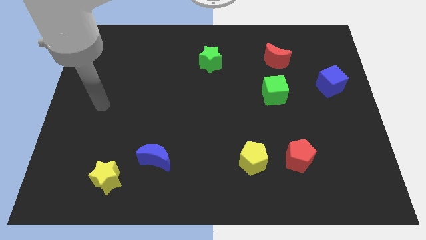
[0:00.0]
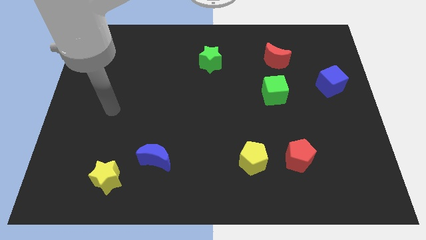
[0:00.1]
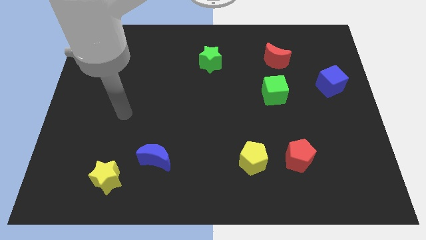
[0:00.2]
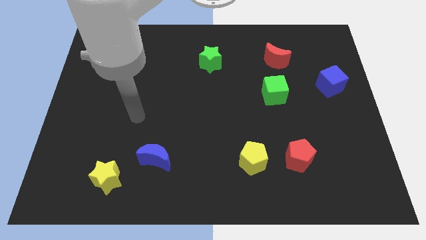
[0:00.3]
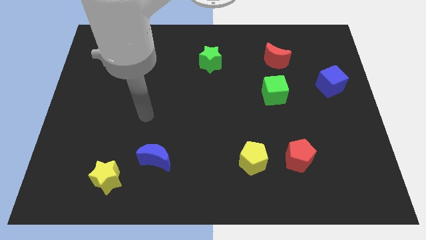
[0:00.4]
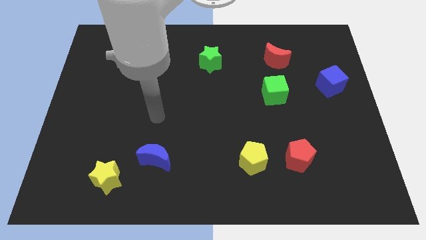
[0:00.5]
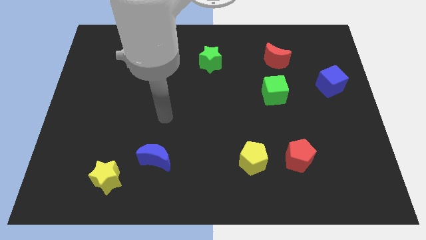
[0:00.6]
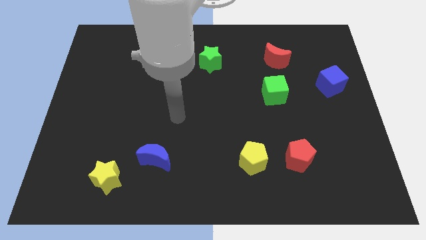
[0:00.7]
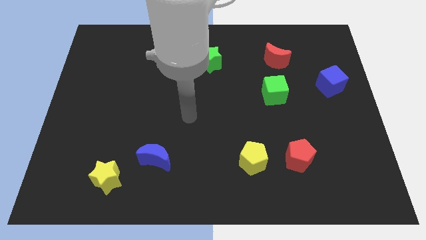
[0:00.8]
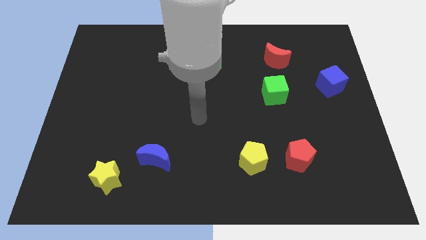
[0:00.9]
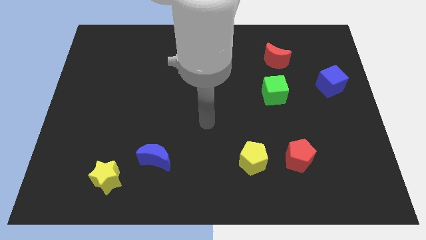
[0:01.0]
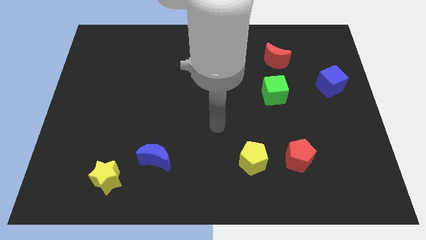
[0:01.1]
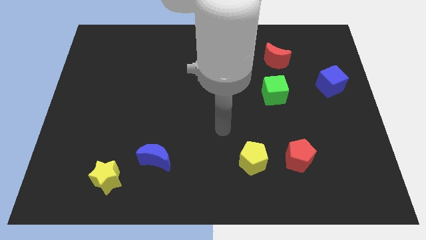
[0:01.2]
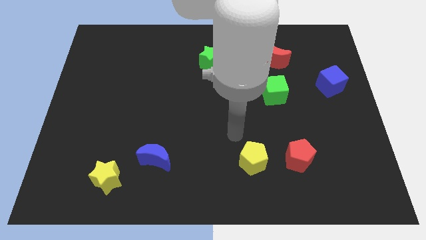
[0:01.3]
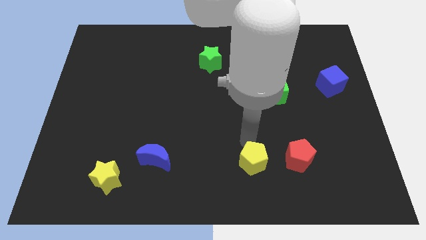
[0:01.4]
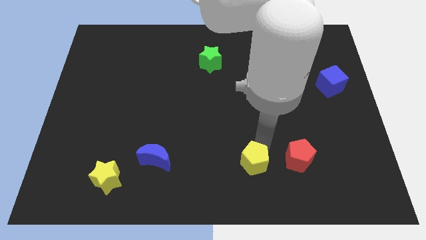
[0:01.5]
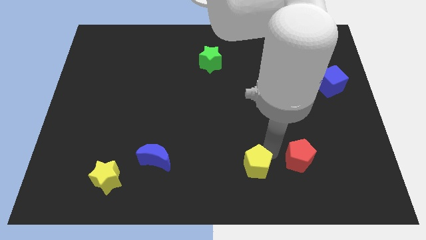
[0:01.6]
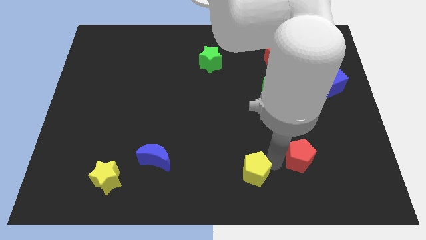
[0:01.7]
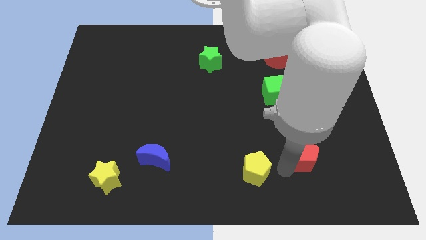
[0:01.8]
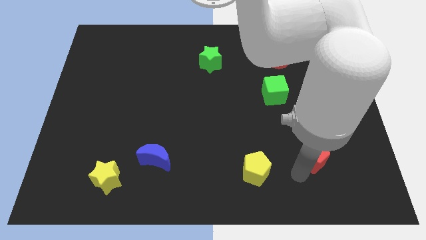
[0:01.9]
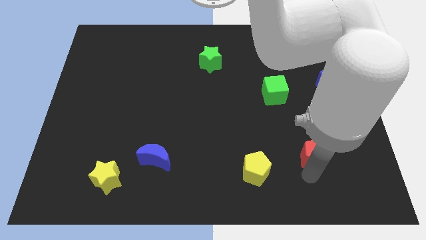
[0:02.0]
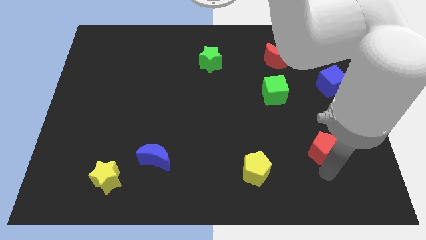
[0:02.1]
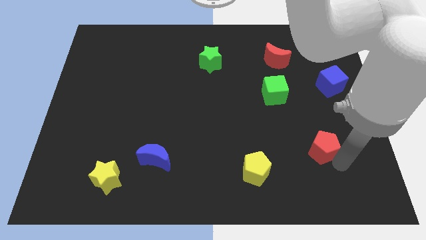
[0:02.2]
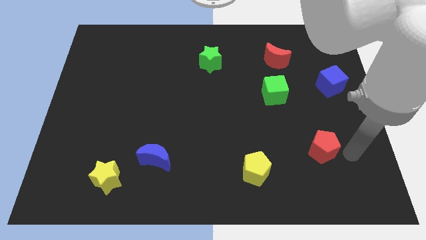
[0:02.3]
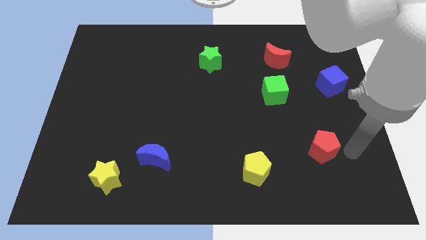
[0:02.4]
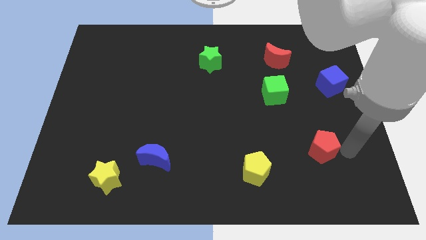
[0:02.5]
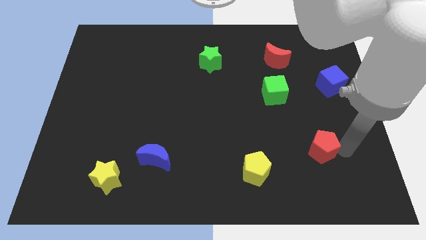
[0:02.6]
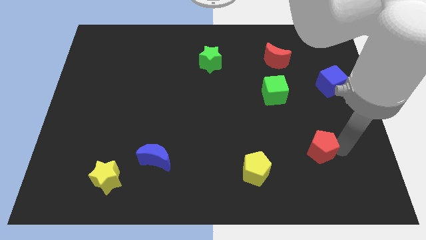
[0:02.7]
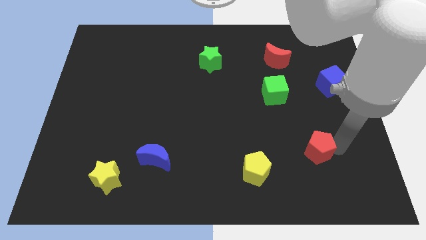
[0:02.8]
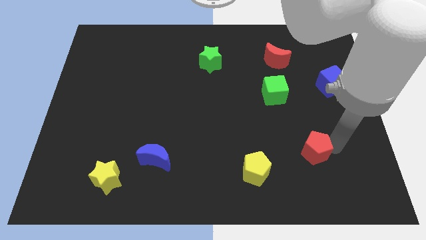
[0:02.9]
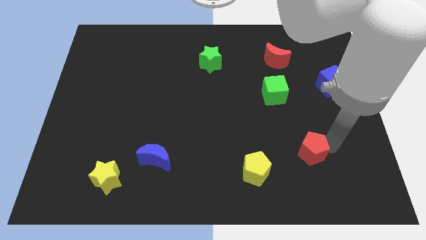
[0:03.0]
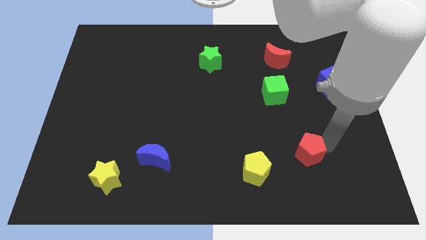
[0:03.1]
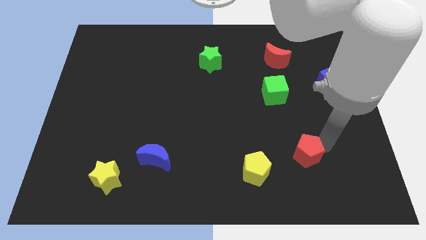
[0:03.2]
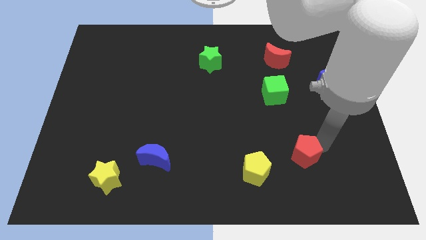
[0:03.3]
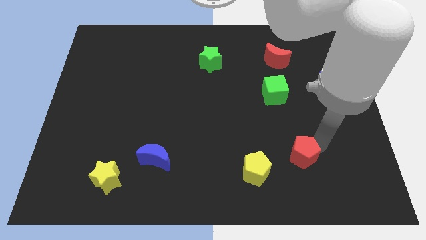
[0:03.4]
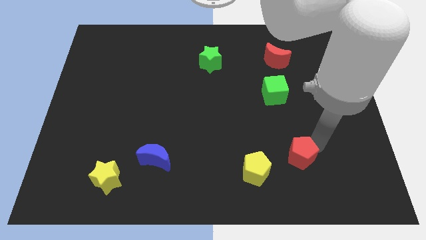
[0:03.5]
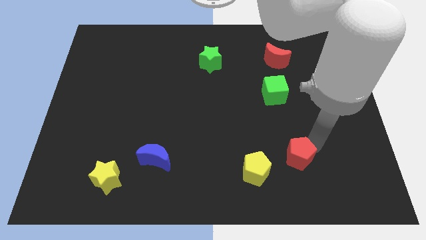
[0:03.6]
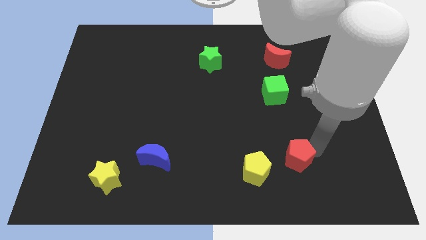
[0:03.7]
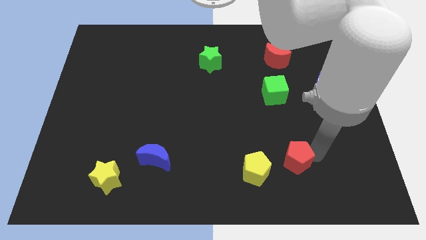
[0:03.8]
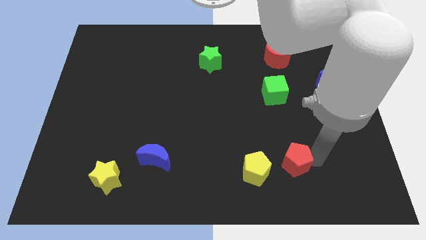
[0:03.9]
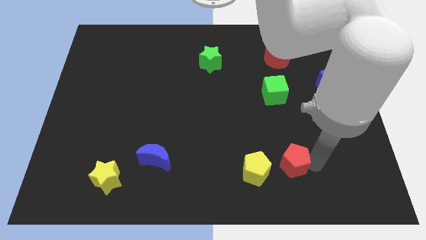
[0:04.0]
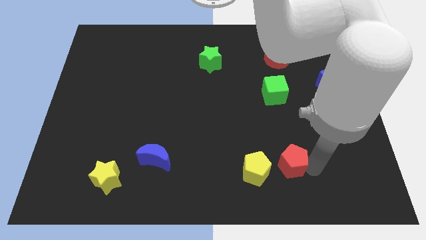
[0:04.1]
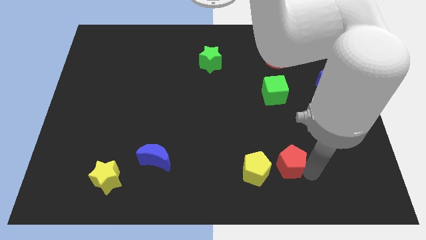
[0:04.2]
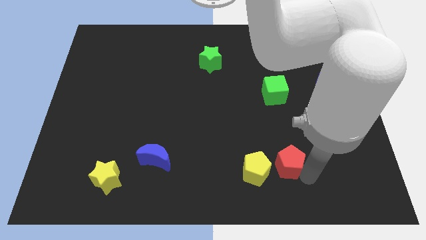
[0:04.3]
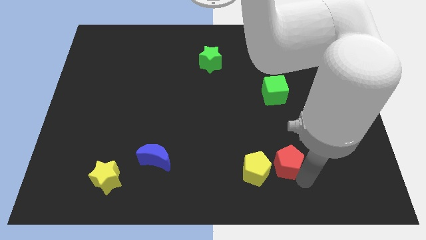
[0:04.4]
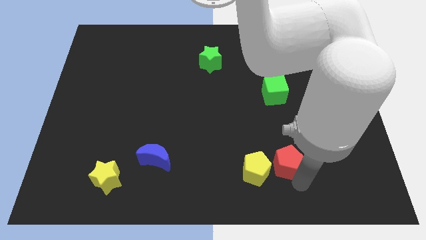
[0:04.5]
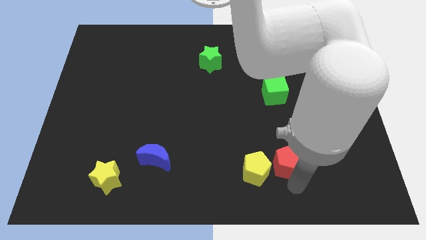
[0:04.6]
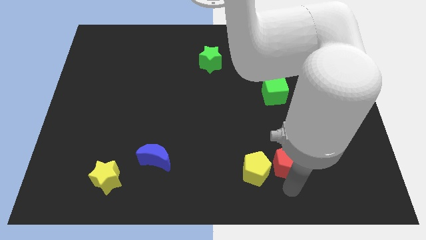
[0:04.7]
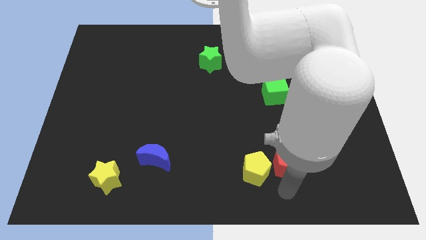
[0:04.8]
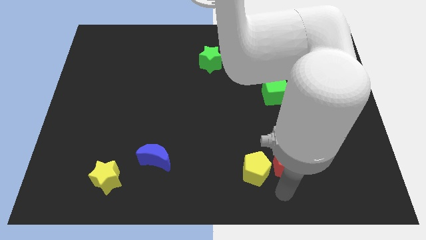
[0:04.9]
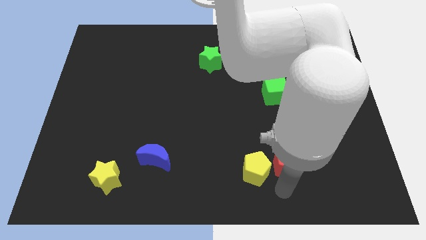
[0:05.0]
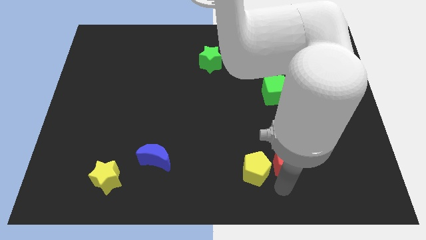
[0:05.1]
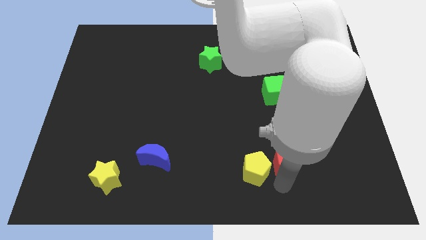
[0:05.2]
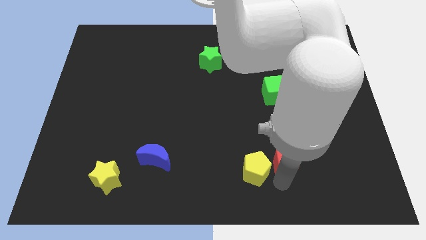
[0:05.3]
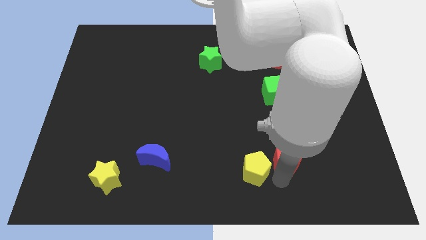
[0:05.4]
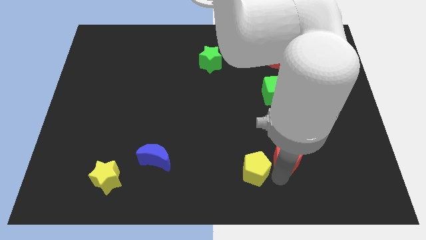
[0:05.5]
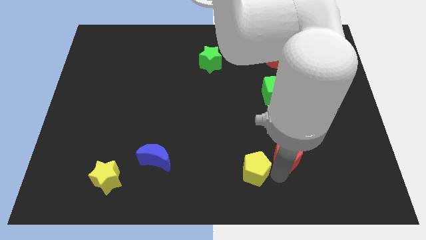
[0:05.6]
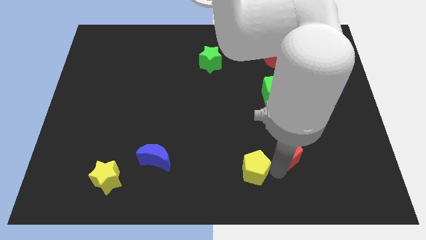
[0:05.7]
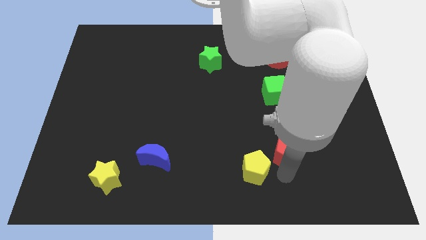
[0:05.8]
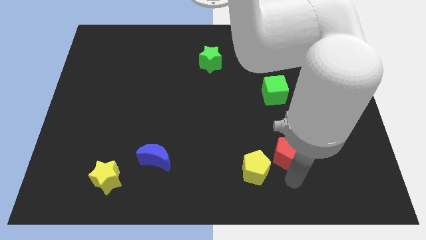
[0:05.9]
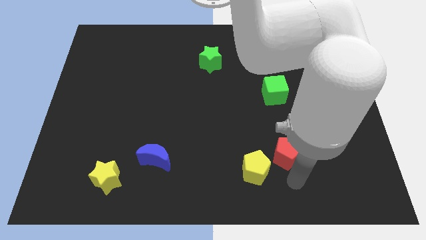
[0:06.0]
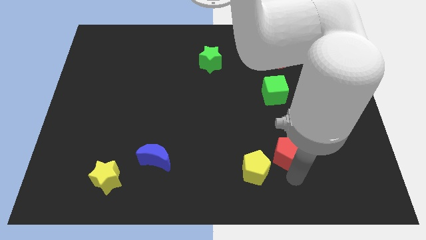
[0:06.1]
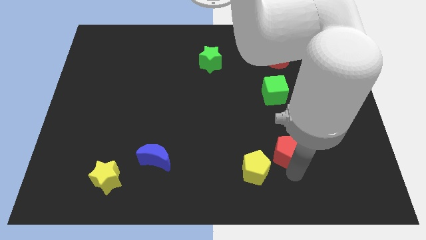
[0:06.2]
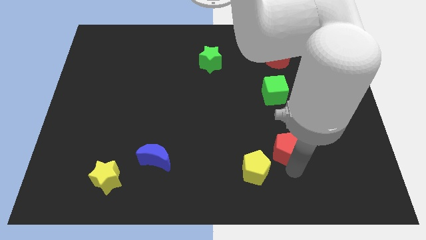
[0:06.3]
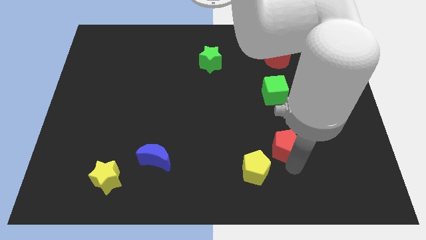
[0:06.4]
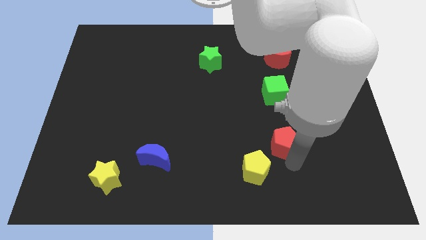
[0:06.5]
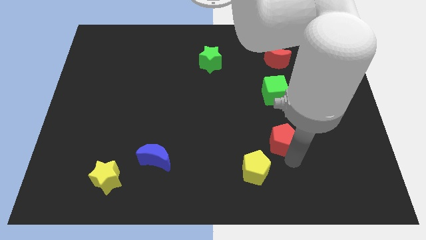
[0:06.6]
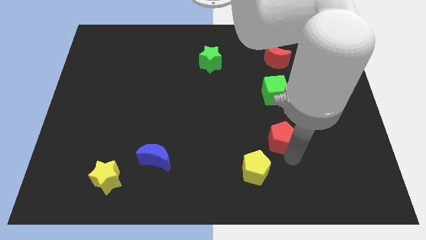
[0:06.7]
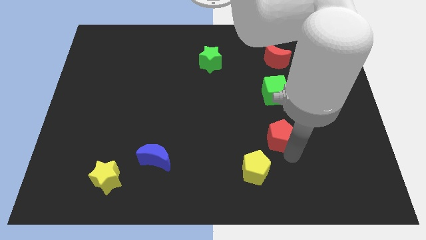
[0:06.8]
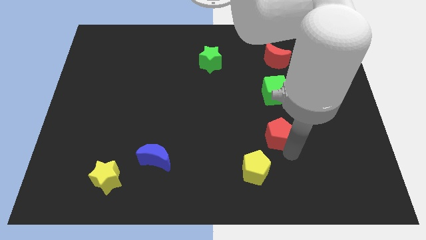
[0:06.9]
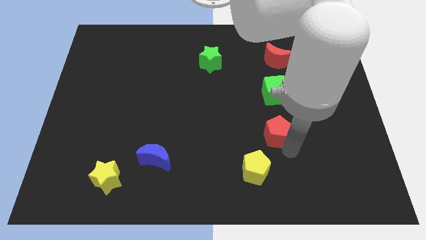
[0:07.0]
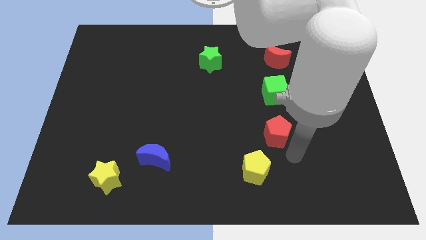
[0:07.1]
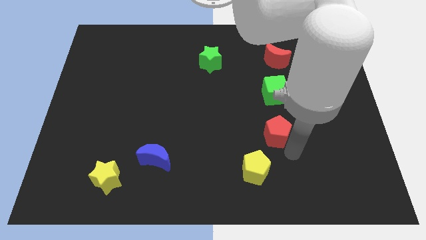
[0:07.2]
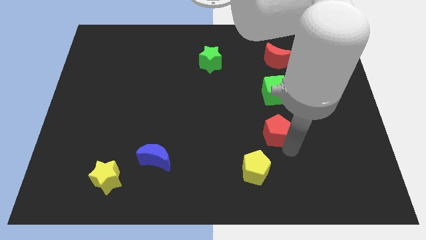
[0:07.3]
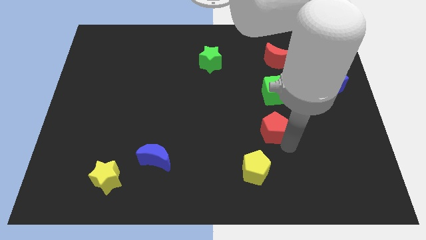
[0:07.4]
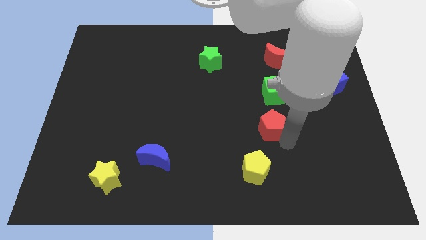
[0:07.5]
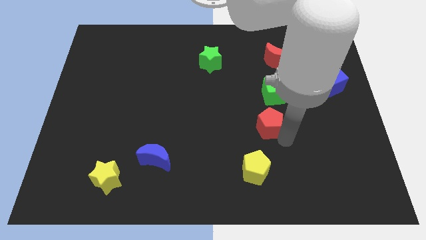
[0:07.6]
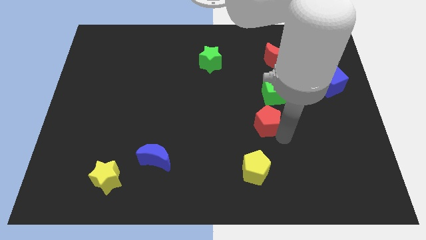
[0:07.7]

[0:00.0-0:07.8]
push the red pentagon to the bottom left of the green cube
